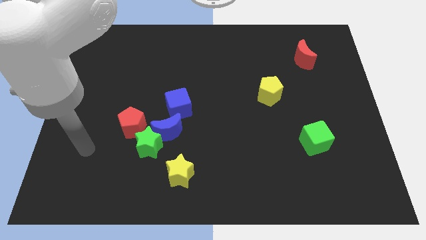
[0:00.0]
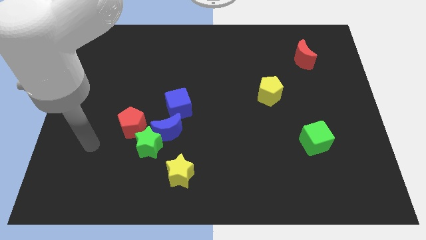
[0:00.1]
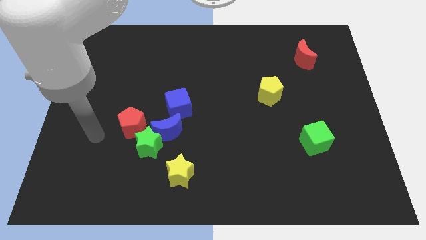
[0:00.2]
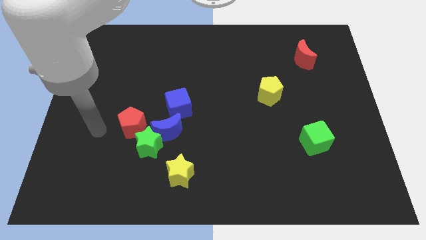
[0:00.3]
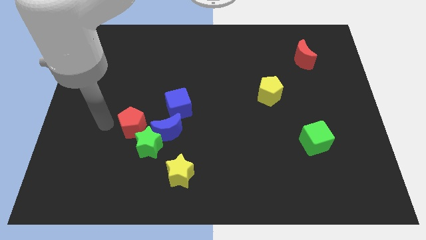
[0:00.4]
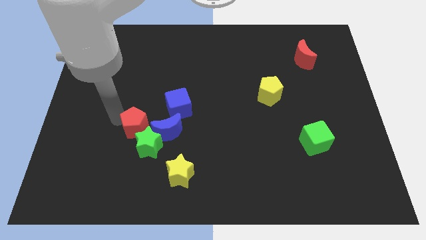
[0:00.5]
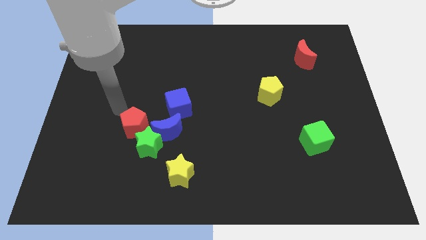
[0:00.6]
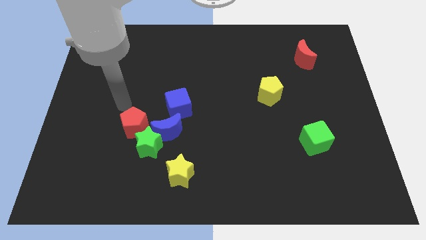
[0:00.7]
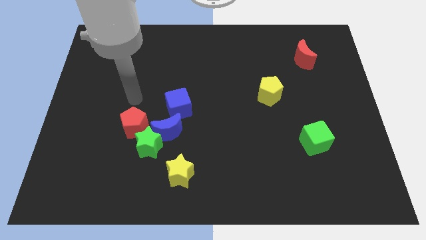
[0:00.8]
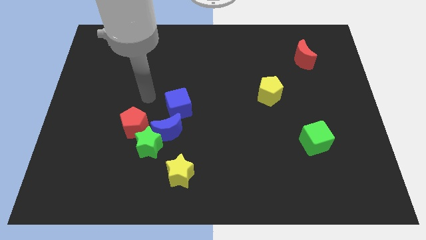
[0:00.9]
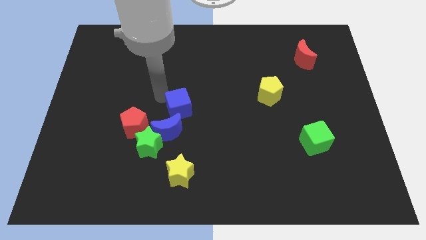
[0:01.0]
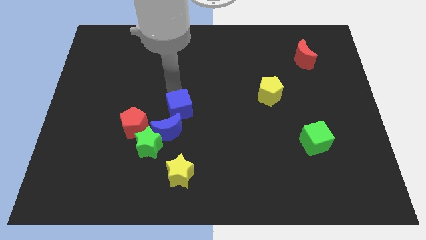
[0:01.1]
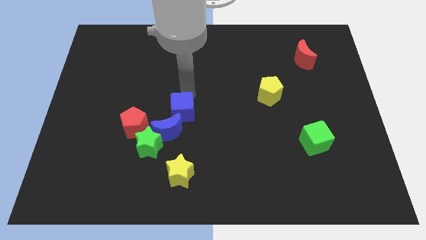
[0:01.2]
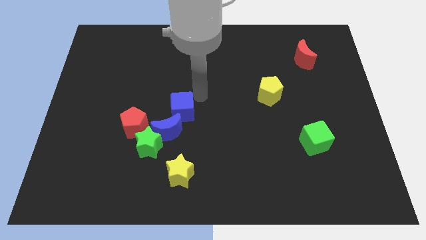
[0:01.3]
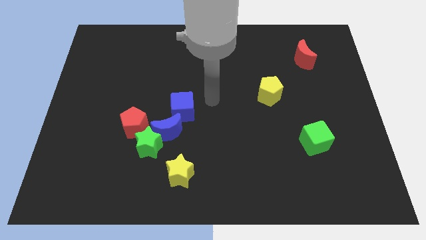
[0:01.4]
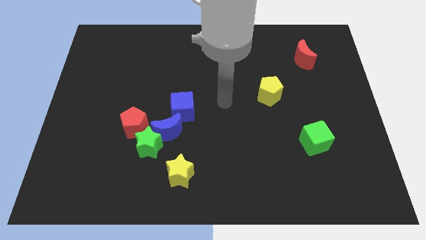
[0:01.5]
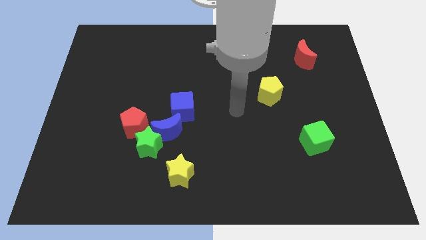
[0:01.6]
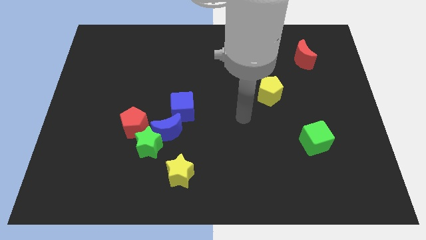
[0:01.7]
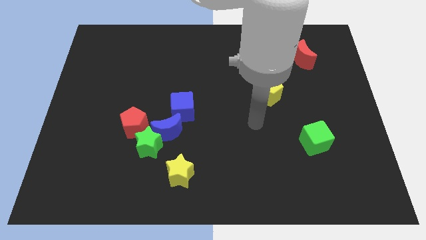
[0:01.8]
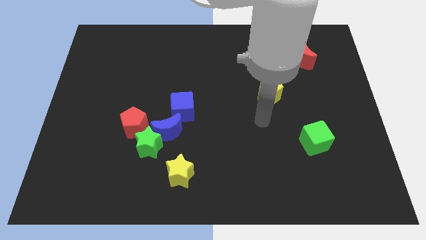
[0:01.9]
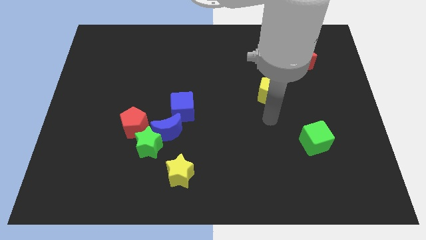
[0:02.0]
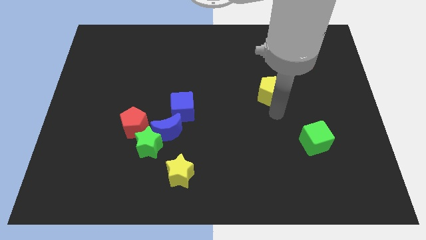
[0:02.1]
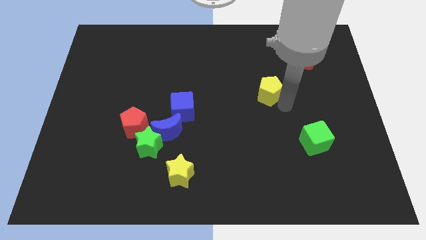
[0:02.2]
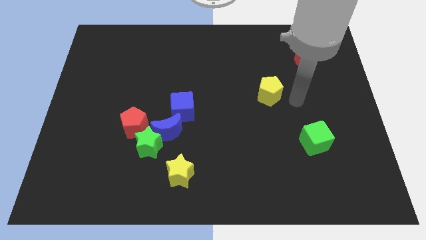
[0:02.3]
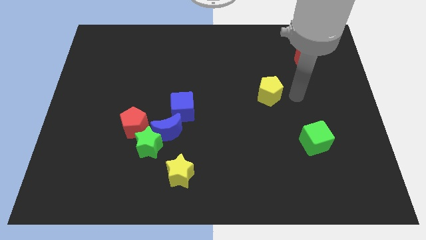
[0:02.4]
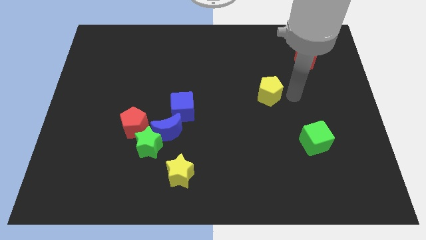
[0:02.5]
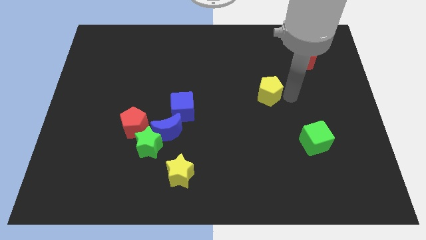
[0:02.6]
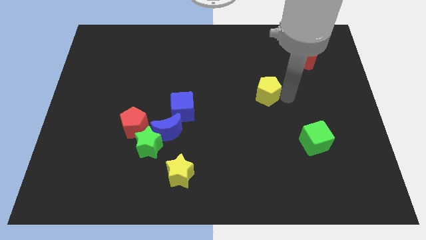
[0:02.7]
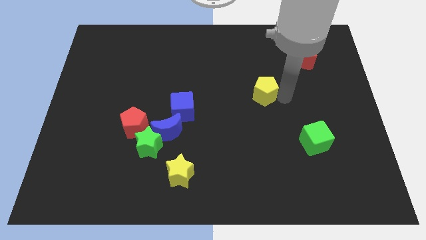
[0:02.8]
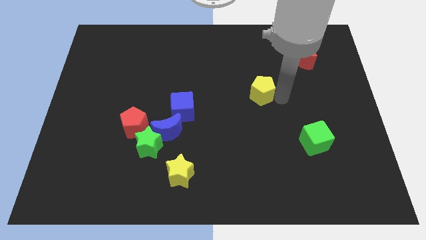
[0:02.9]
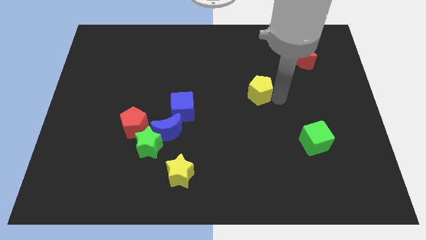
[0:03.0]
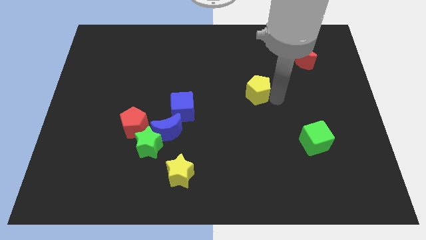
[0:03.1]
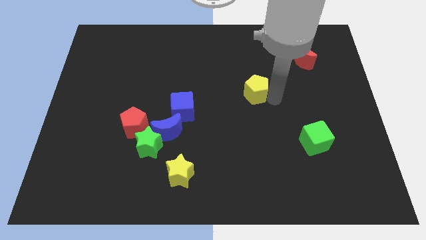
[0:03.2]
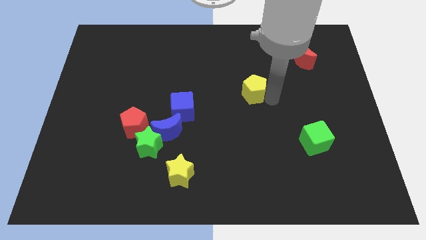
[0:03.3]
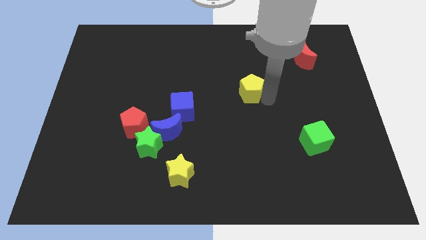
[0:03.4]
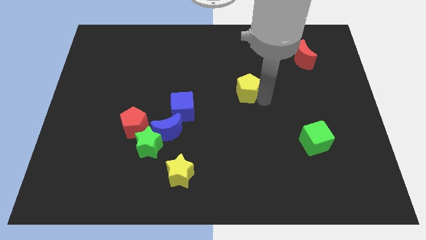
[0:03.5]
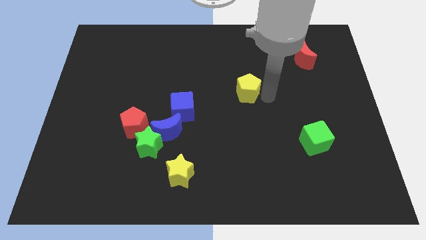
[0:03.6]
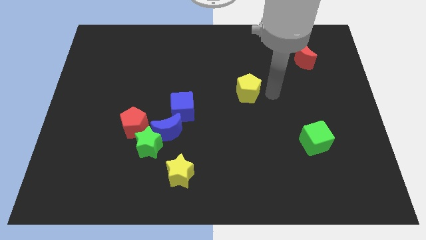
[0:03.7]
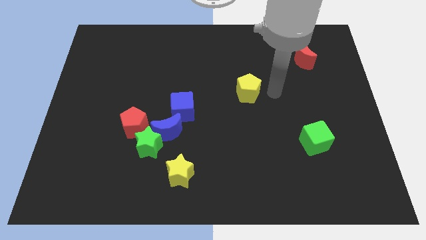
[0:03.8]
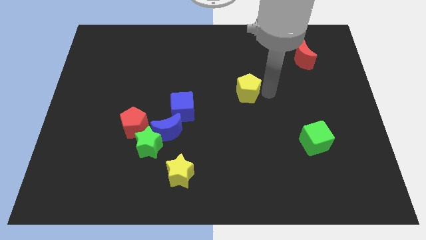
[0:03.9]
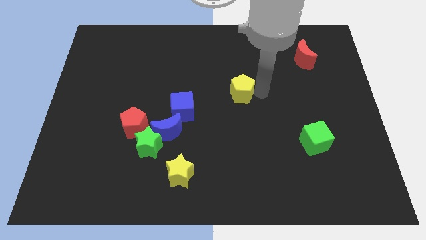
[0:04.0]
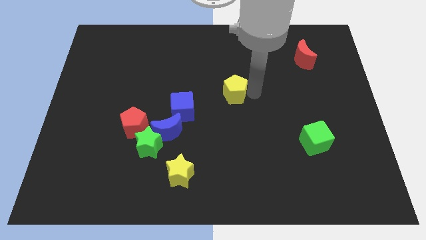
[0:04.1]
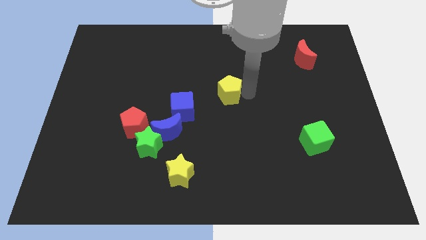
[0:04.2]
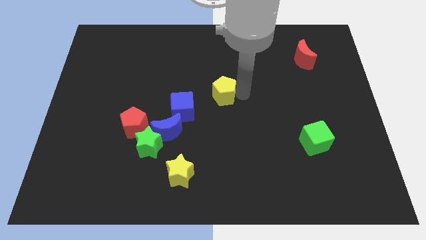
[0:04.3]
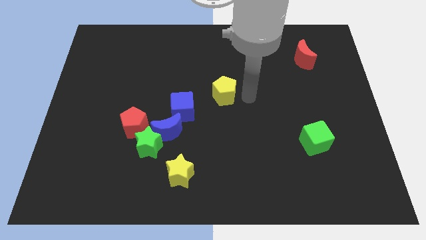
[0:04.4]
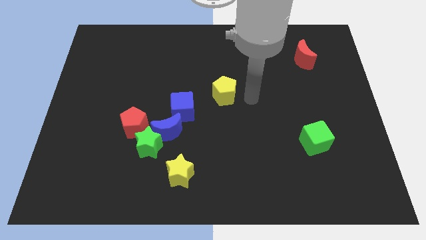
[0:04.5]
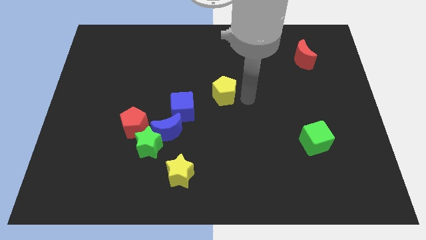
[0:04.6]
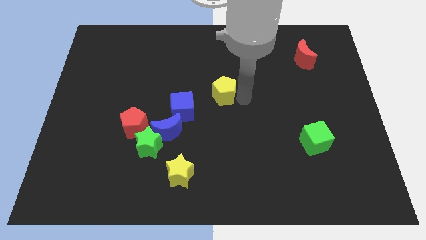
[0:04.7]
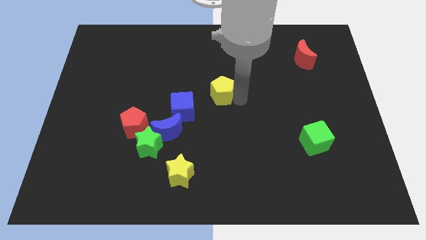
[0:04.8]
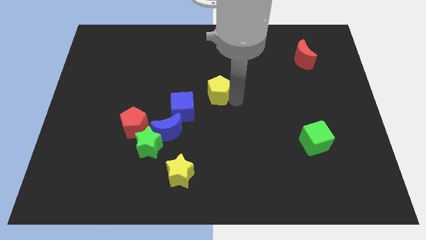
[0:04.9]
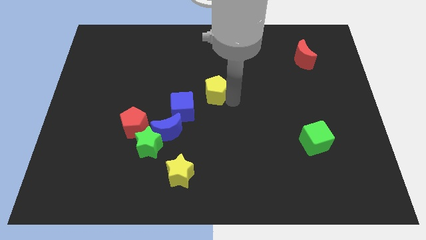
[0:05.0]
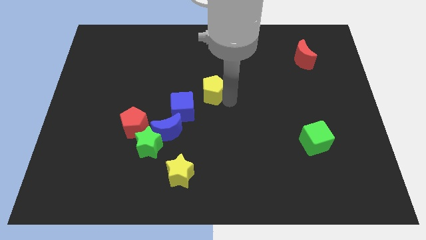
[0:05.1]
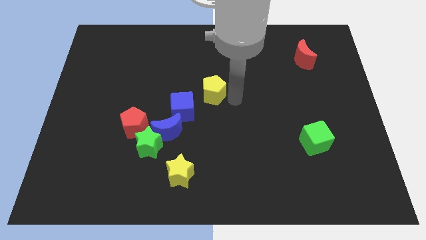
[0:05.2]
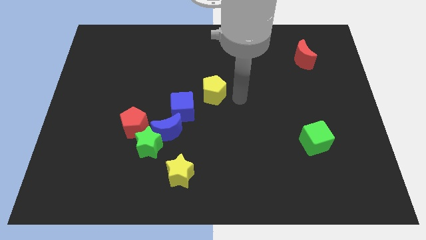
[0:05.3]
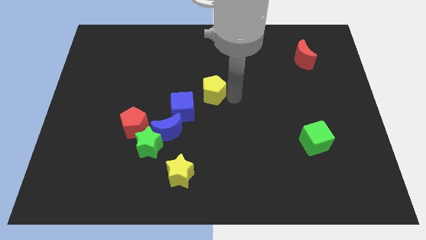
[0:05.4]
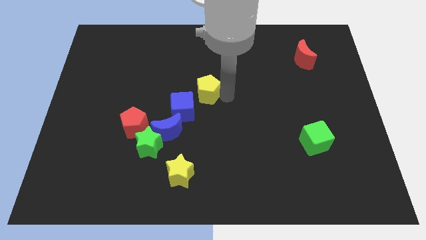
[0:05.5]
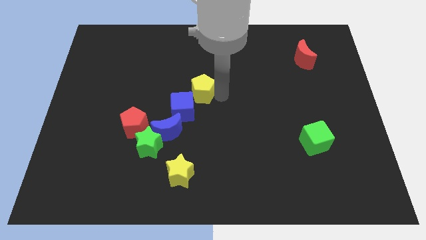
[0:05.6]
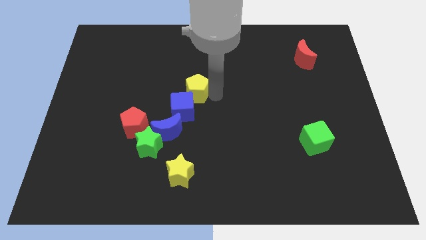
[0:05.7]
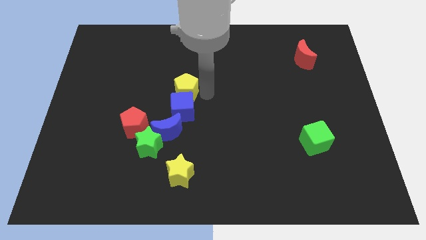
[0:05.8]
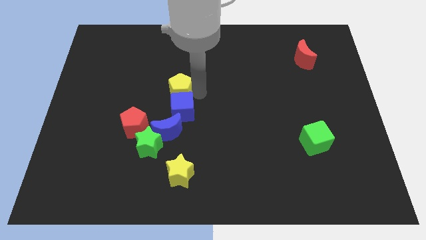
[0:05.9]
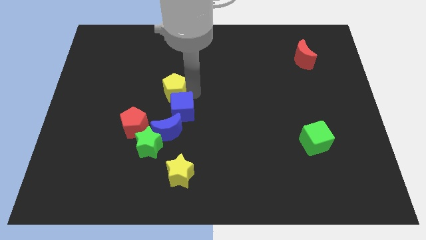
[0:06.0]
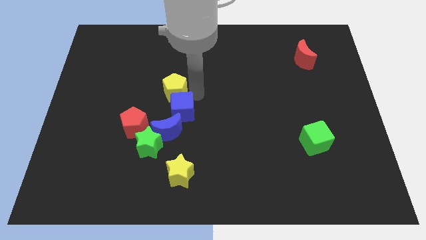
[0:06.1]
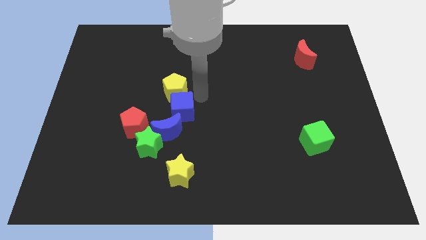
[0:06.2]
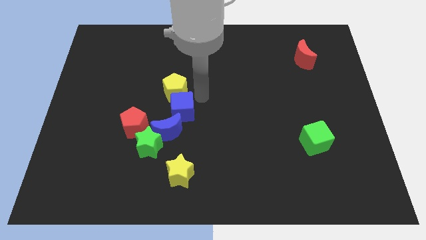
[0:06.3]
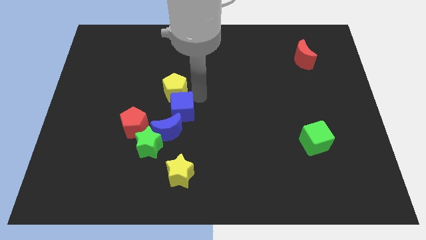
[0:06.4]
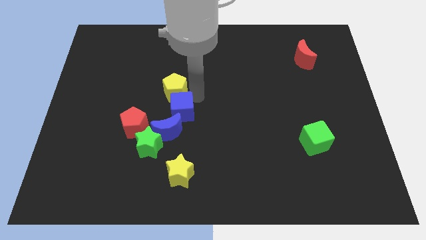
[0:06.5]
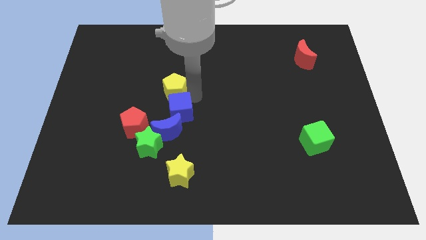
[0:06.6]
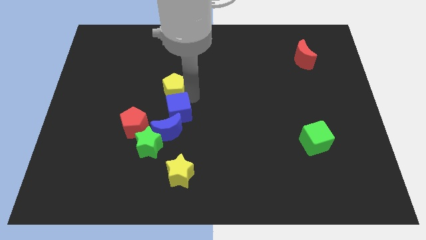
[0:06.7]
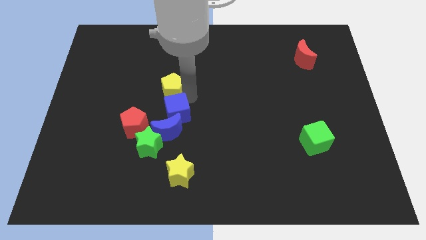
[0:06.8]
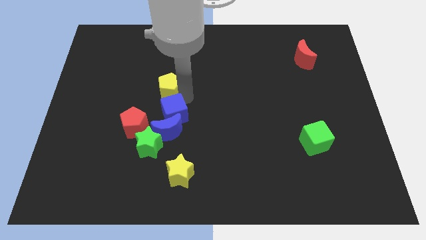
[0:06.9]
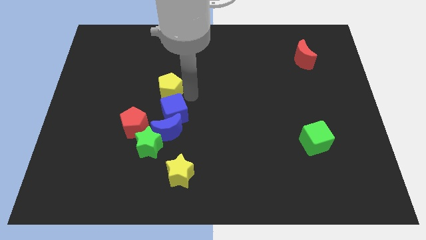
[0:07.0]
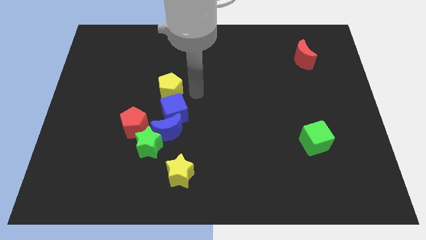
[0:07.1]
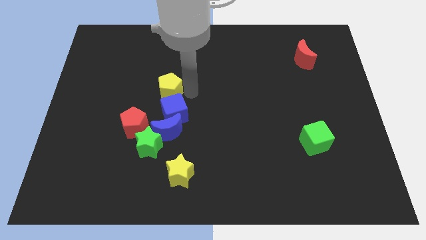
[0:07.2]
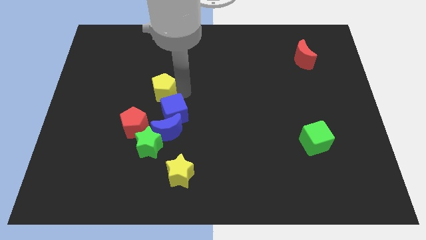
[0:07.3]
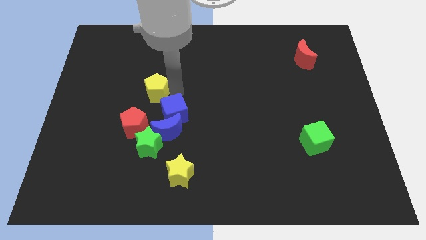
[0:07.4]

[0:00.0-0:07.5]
push the yellow pentagon to the top of the red pentagon

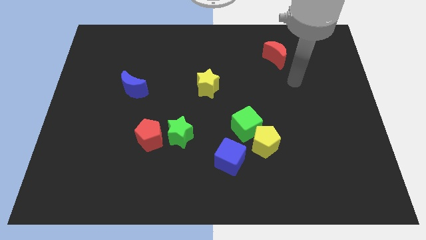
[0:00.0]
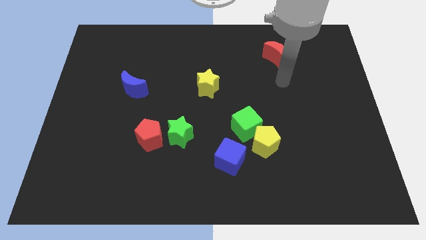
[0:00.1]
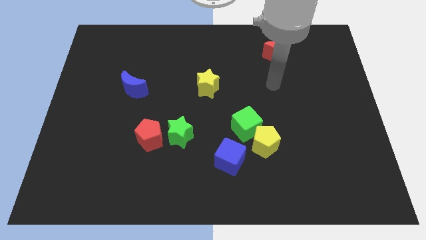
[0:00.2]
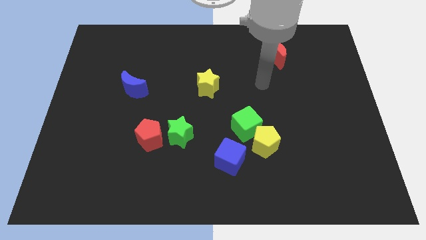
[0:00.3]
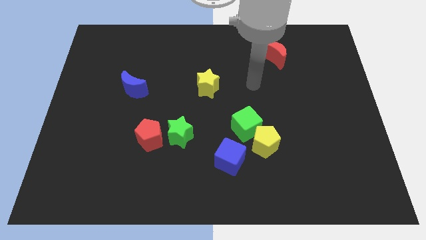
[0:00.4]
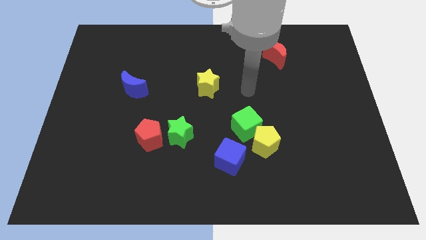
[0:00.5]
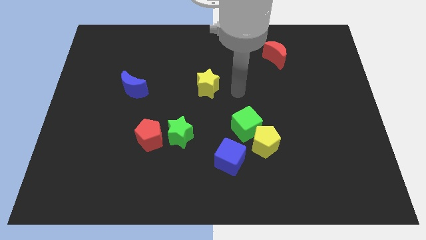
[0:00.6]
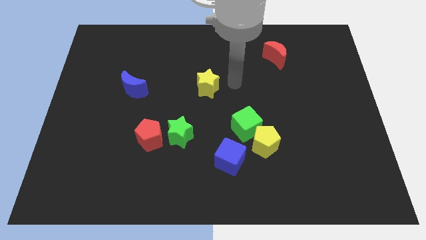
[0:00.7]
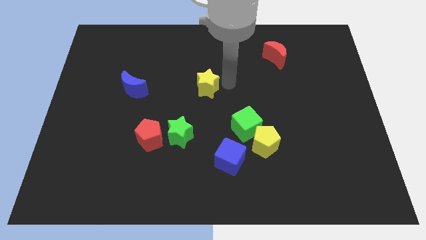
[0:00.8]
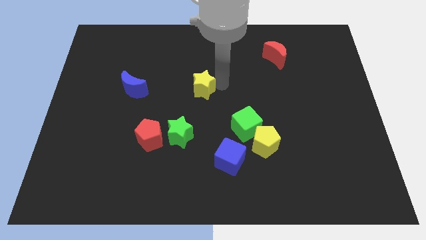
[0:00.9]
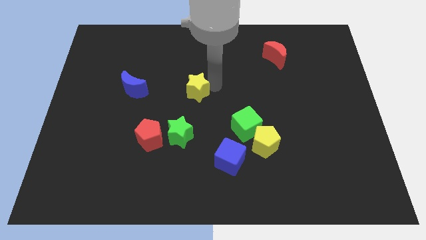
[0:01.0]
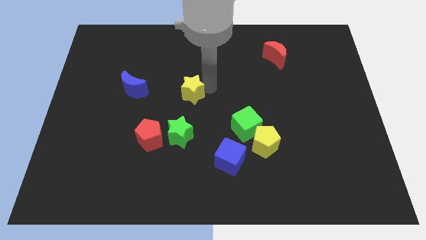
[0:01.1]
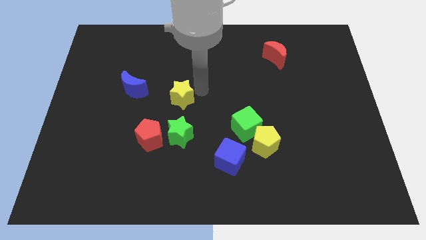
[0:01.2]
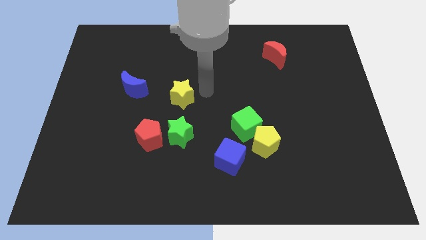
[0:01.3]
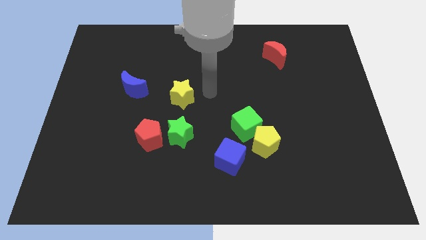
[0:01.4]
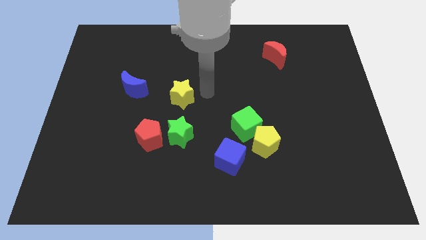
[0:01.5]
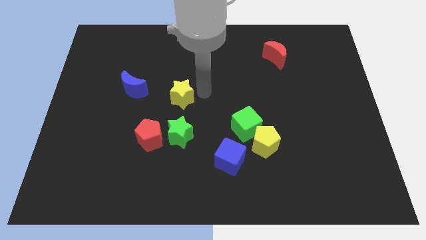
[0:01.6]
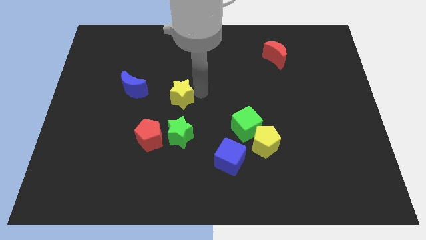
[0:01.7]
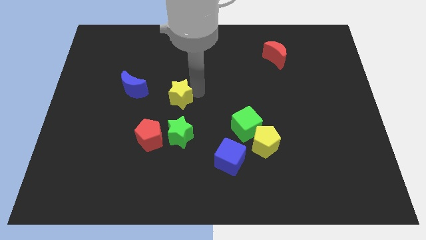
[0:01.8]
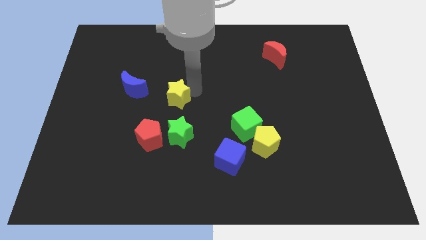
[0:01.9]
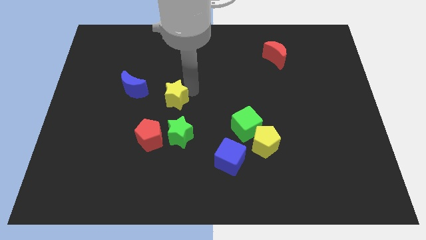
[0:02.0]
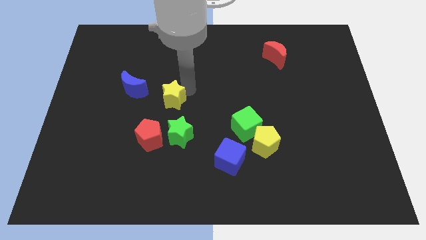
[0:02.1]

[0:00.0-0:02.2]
move the yellow star to the top side of the red pentagon
